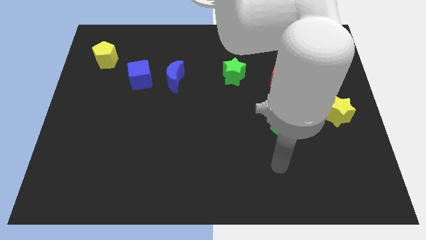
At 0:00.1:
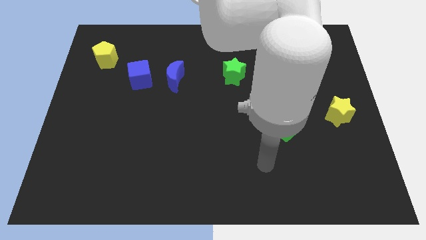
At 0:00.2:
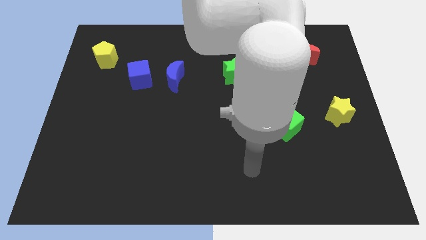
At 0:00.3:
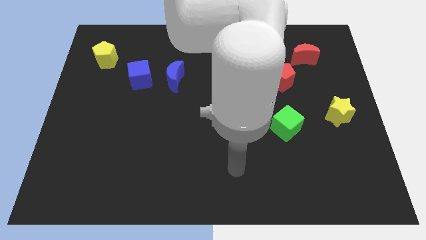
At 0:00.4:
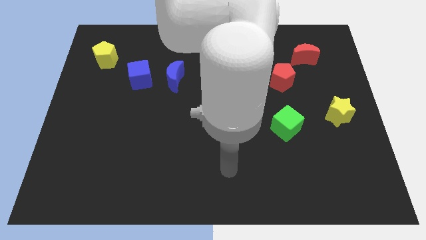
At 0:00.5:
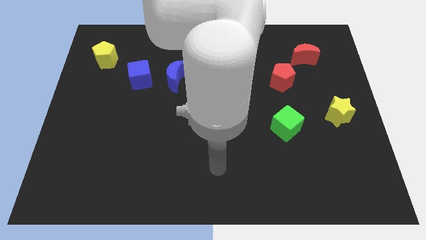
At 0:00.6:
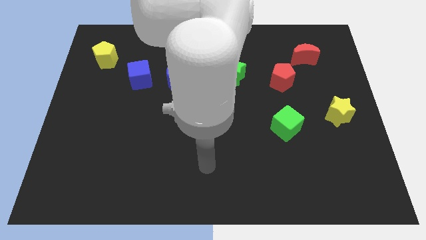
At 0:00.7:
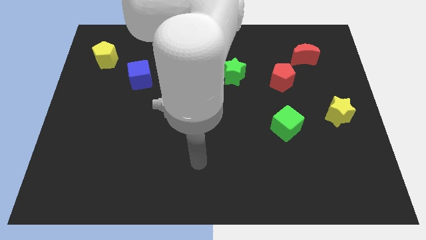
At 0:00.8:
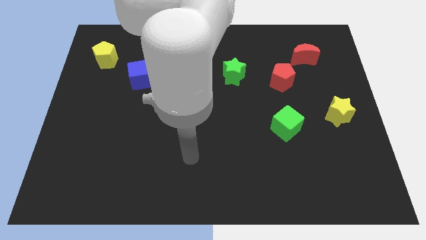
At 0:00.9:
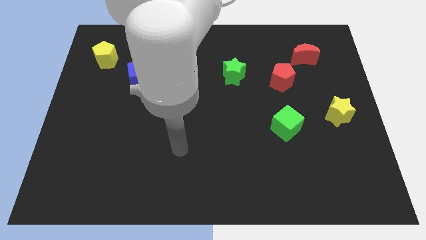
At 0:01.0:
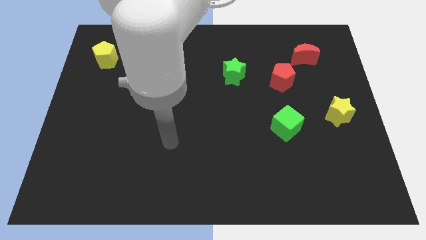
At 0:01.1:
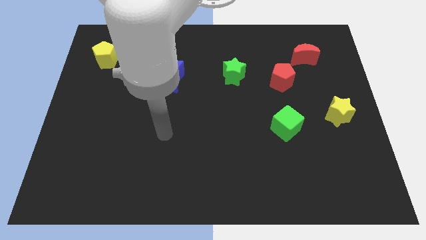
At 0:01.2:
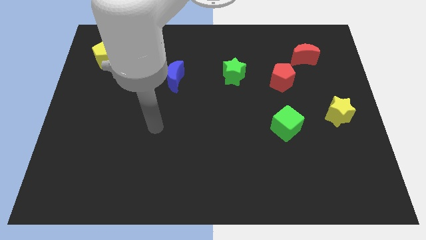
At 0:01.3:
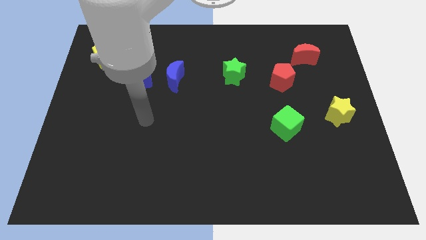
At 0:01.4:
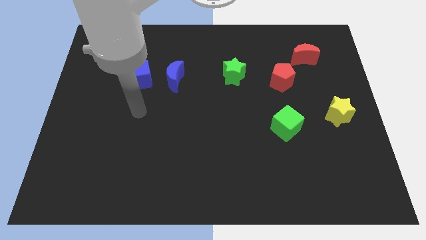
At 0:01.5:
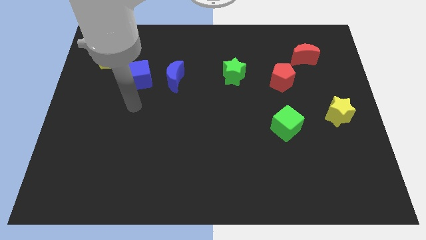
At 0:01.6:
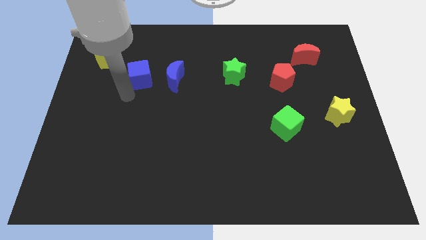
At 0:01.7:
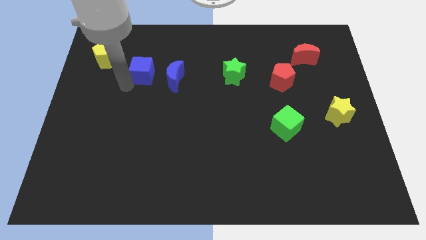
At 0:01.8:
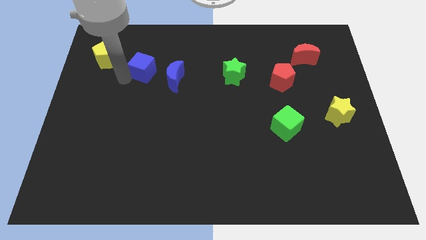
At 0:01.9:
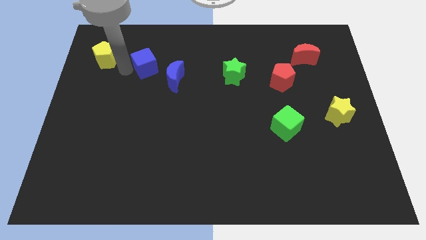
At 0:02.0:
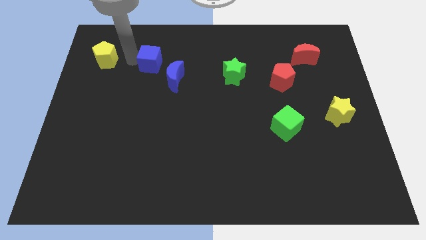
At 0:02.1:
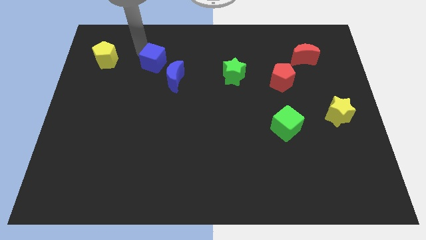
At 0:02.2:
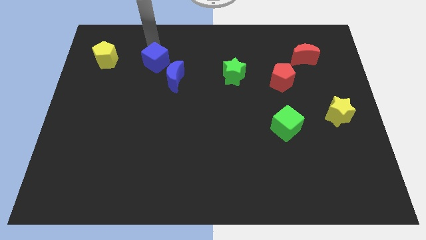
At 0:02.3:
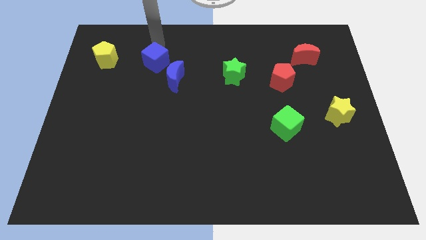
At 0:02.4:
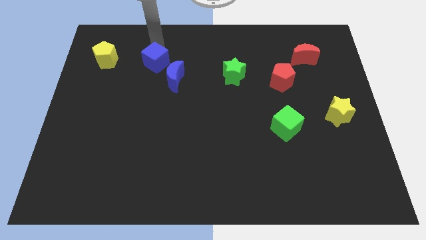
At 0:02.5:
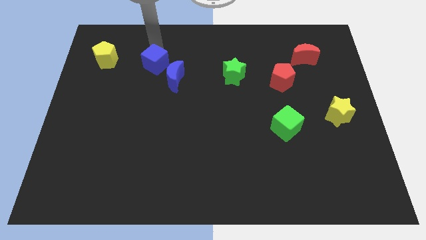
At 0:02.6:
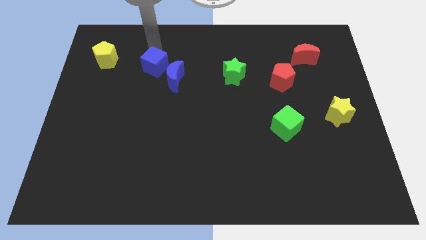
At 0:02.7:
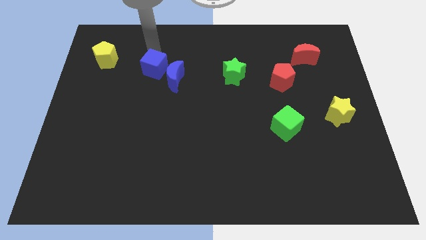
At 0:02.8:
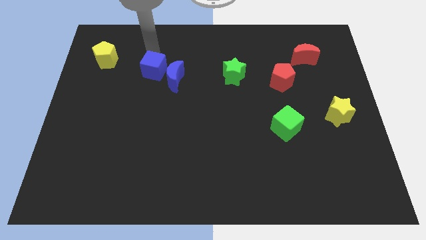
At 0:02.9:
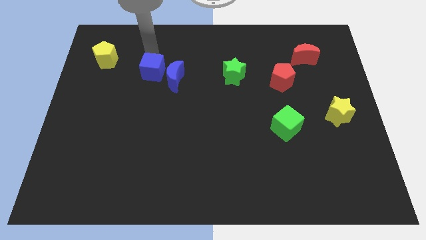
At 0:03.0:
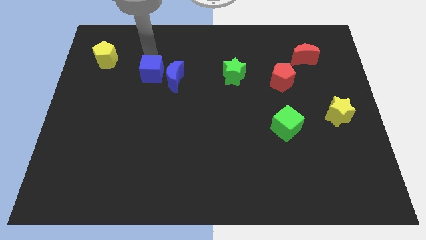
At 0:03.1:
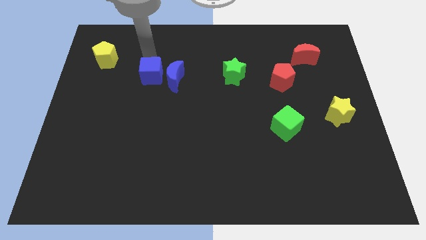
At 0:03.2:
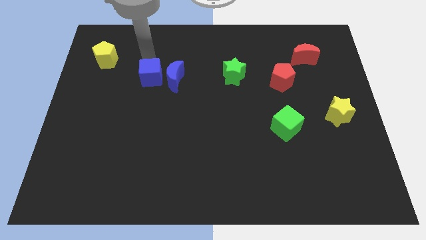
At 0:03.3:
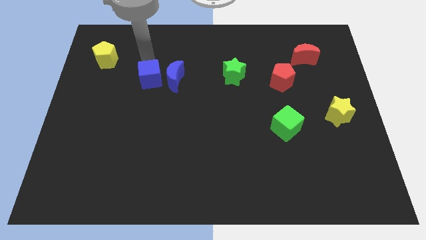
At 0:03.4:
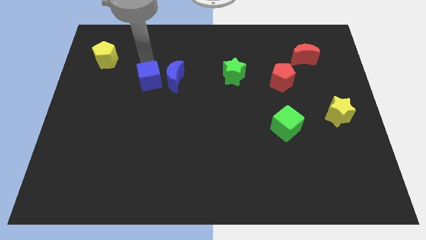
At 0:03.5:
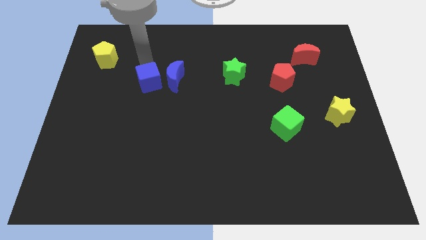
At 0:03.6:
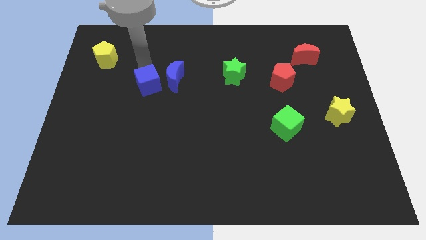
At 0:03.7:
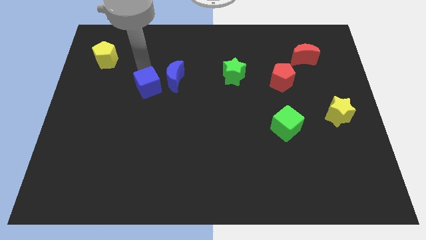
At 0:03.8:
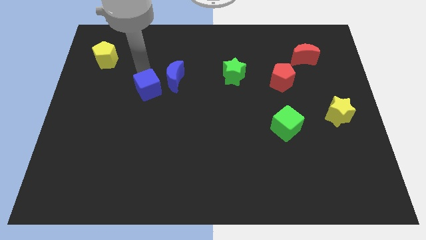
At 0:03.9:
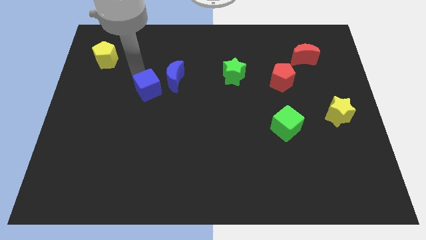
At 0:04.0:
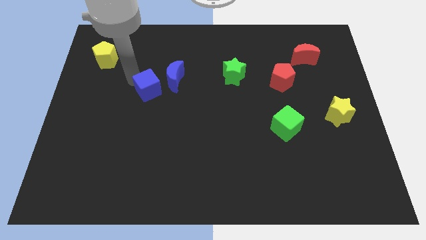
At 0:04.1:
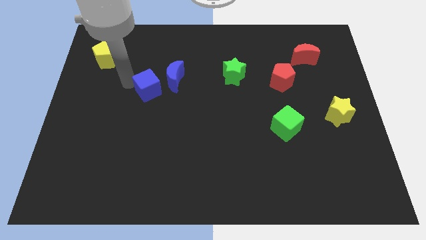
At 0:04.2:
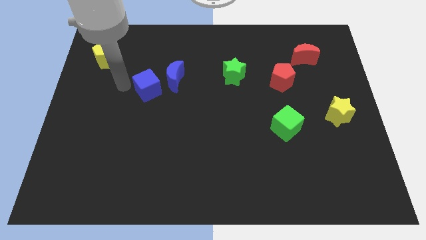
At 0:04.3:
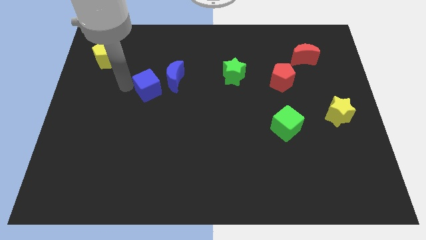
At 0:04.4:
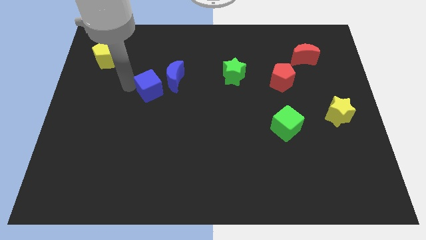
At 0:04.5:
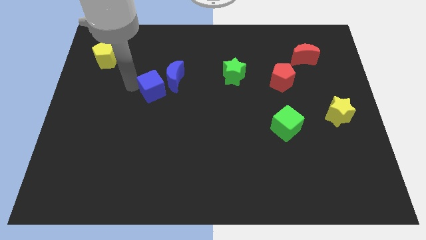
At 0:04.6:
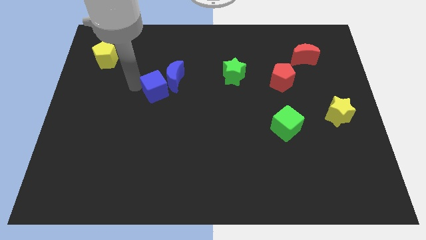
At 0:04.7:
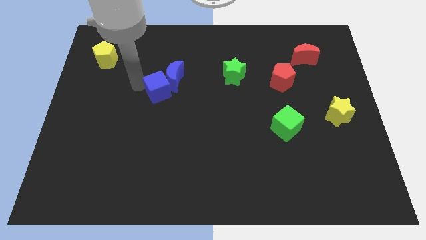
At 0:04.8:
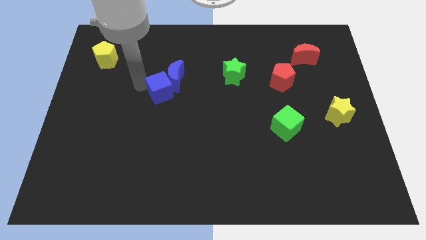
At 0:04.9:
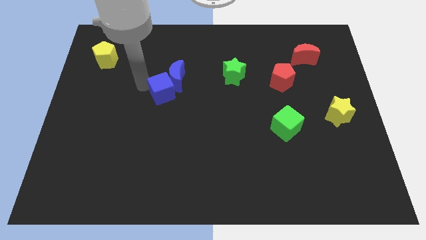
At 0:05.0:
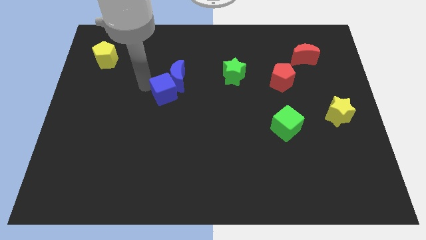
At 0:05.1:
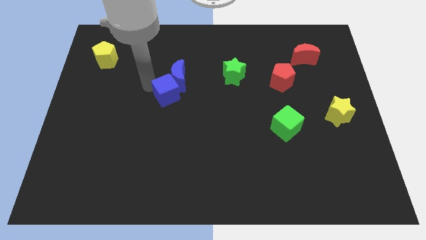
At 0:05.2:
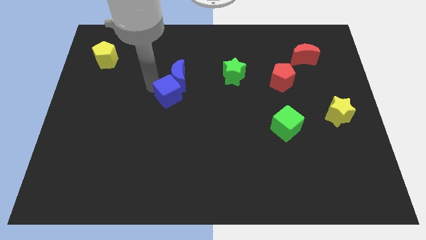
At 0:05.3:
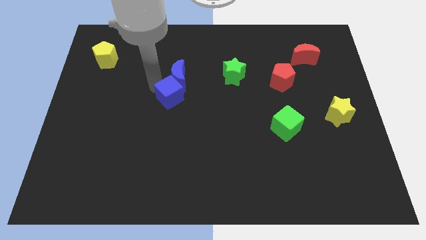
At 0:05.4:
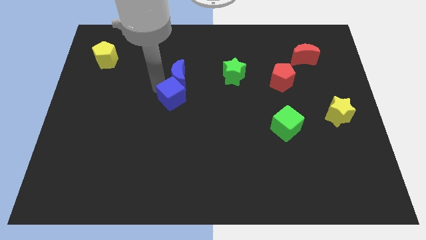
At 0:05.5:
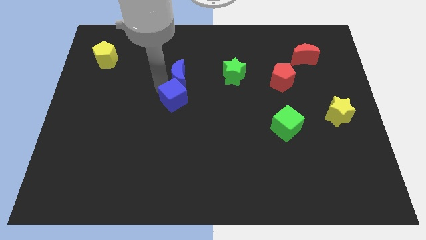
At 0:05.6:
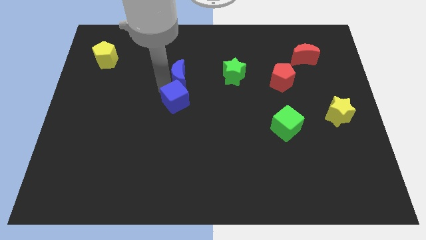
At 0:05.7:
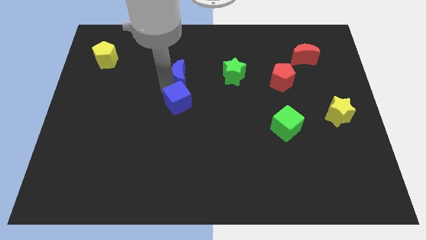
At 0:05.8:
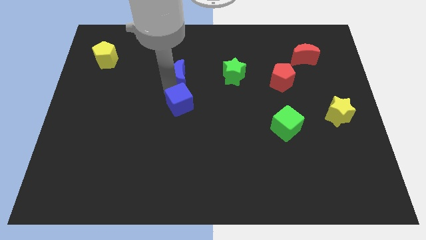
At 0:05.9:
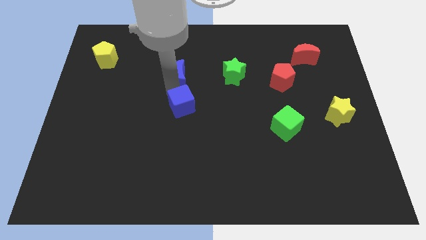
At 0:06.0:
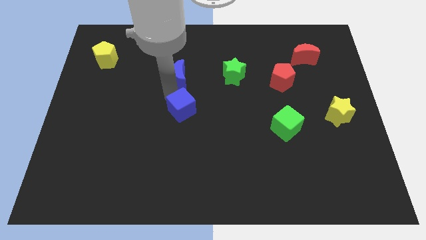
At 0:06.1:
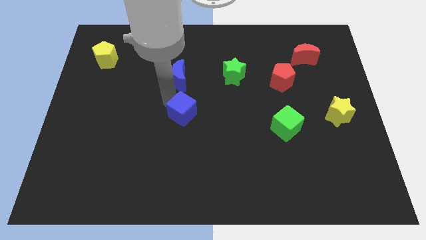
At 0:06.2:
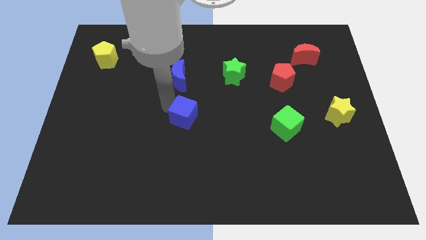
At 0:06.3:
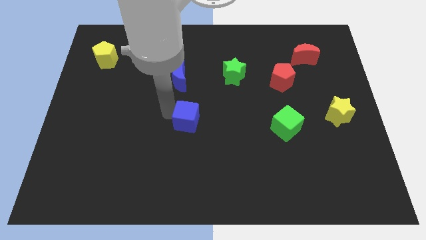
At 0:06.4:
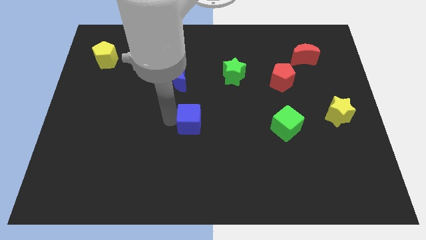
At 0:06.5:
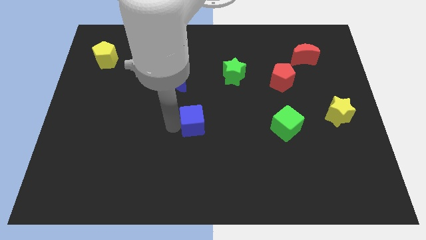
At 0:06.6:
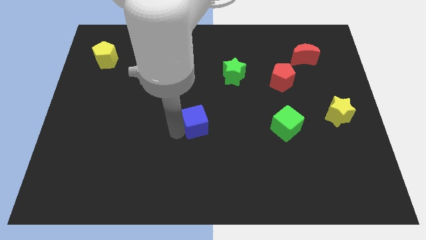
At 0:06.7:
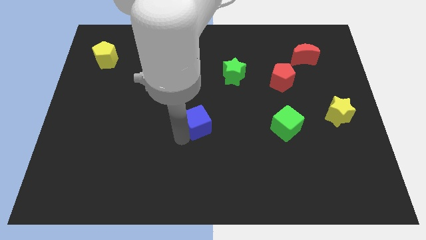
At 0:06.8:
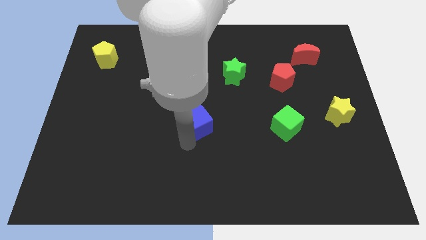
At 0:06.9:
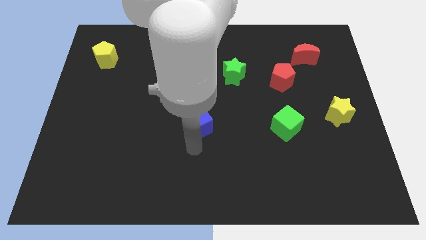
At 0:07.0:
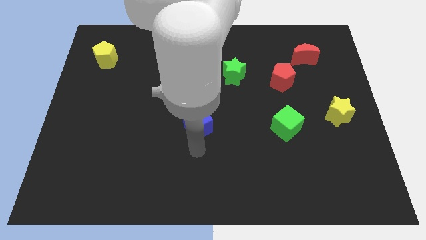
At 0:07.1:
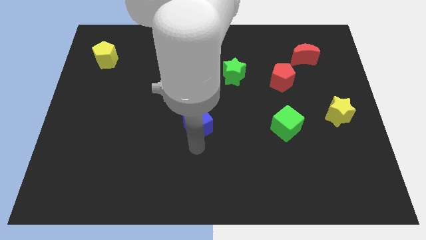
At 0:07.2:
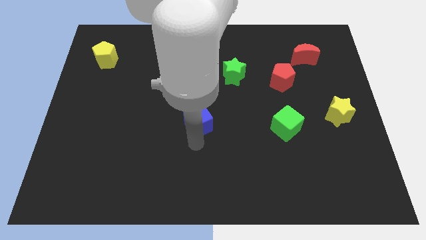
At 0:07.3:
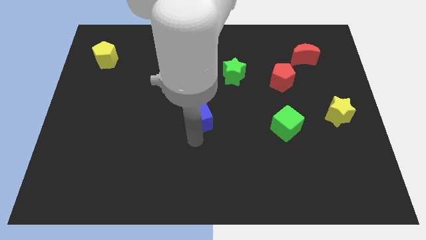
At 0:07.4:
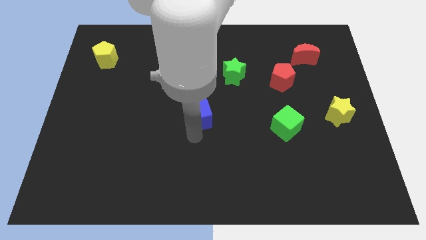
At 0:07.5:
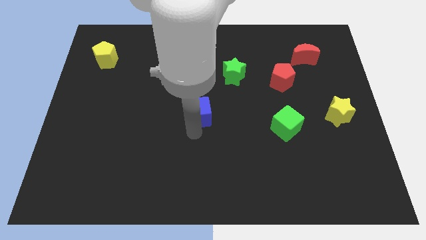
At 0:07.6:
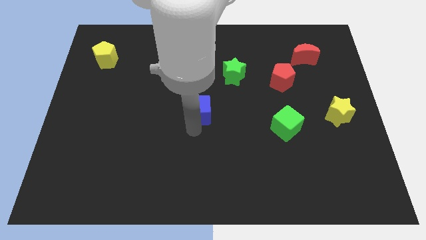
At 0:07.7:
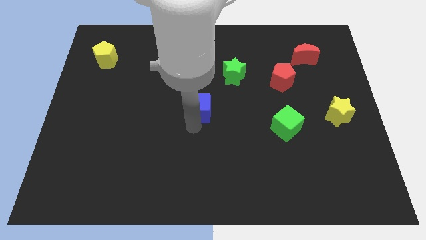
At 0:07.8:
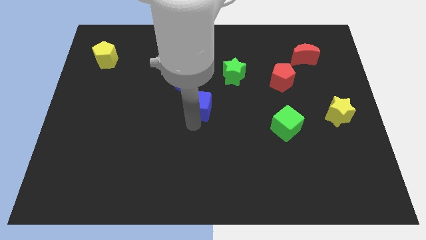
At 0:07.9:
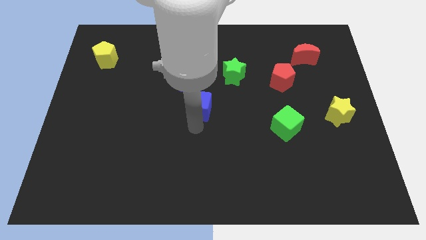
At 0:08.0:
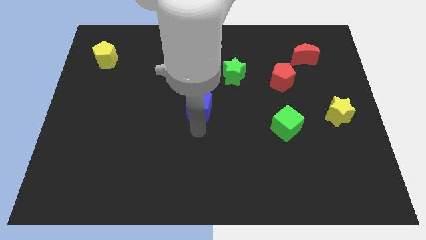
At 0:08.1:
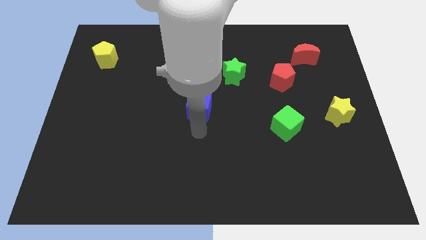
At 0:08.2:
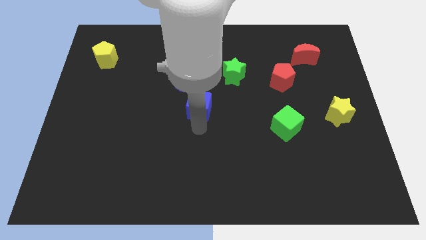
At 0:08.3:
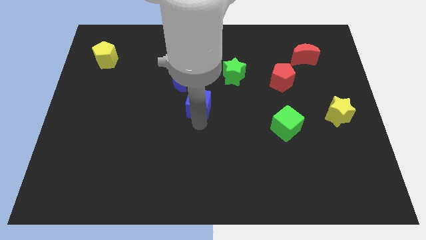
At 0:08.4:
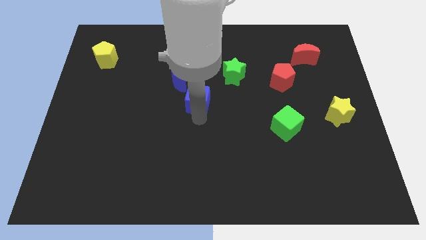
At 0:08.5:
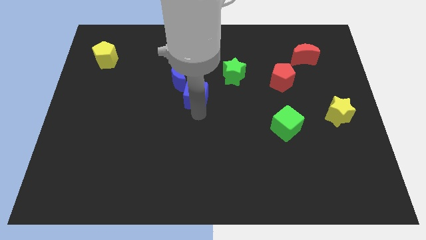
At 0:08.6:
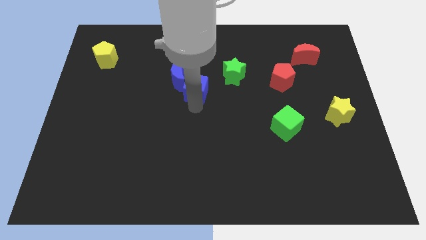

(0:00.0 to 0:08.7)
move the blue cube to the right side of the blue moon
